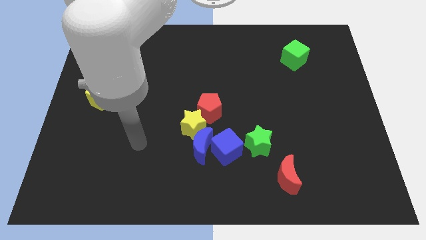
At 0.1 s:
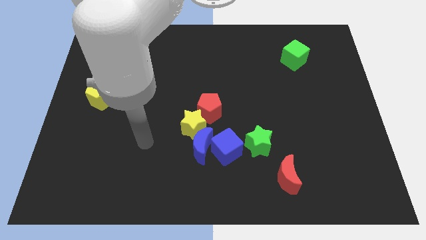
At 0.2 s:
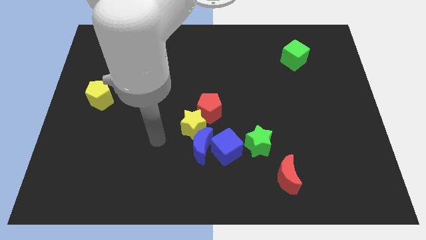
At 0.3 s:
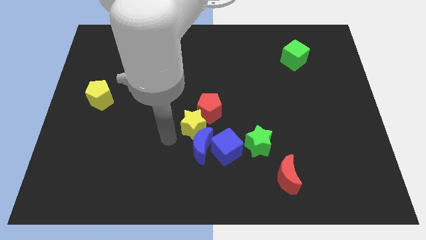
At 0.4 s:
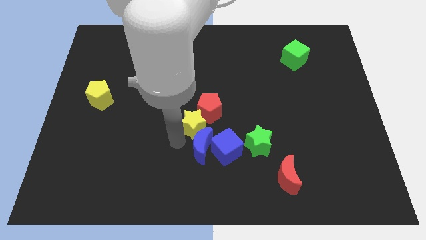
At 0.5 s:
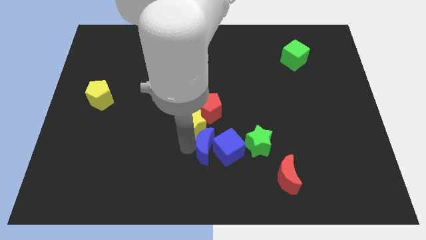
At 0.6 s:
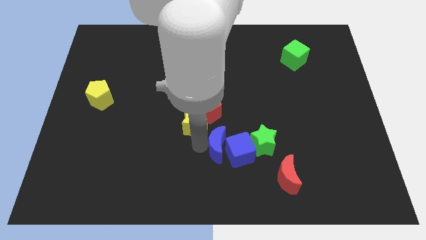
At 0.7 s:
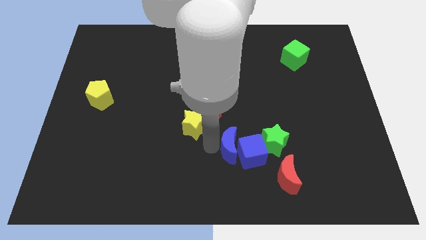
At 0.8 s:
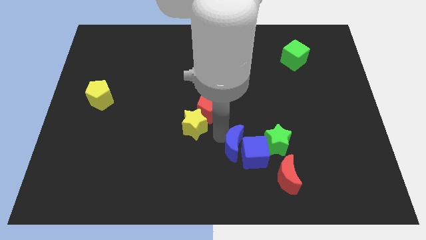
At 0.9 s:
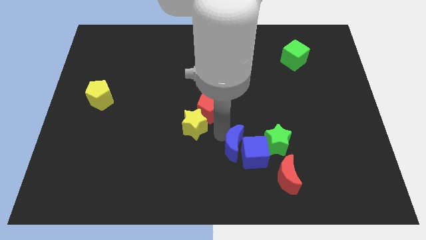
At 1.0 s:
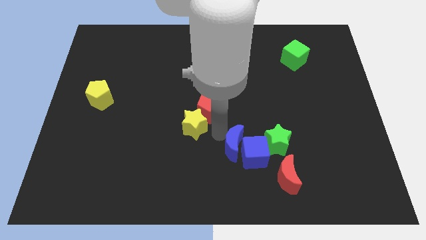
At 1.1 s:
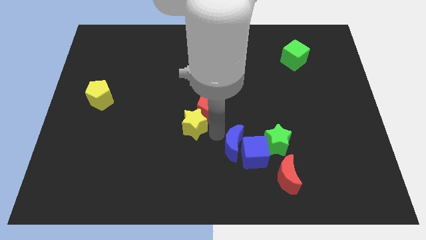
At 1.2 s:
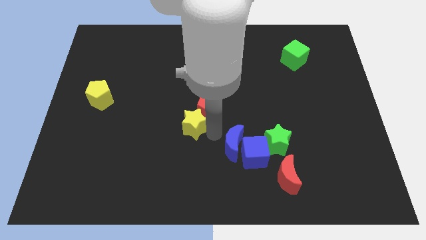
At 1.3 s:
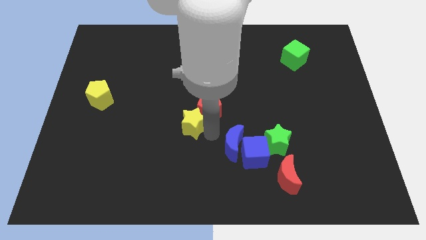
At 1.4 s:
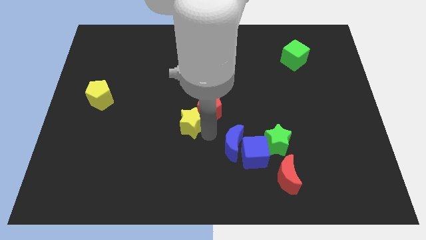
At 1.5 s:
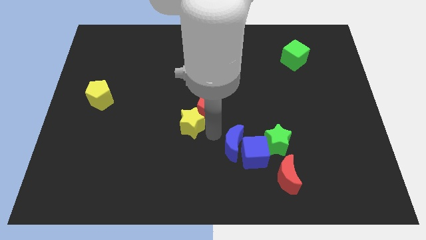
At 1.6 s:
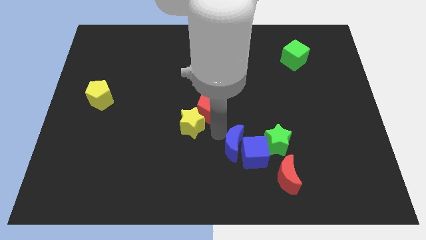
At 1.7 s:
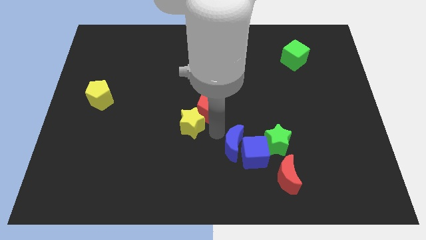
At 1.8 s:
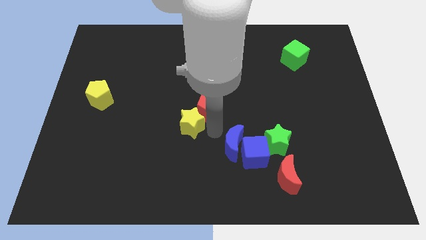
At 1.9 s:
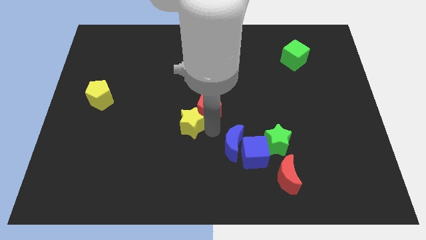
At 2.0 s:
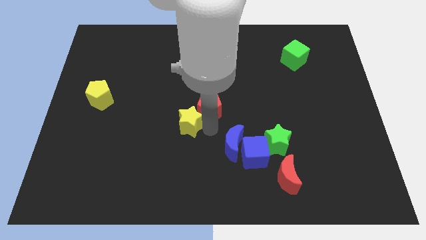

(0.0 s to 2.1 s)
pull the yellow star apart from the group

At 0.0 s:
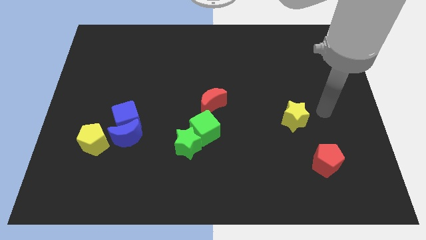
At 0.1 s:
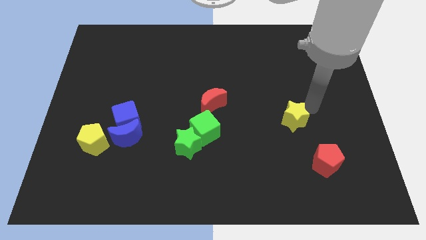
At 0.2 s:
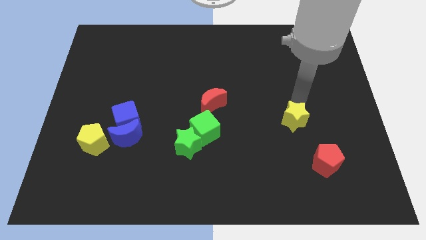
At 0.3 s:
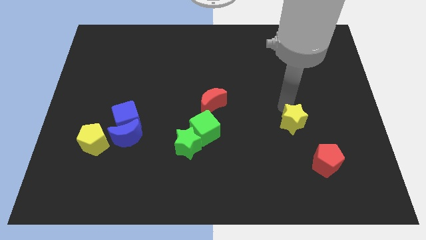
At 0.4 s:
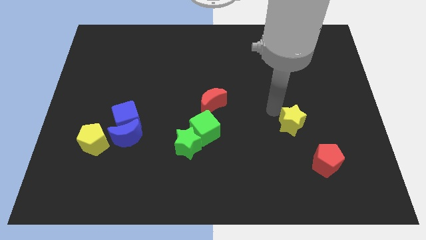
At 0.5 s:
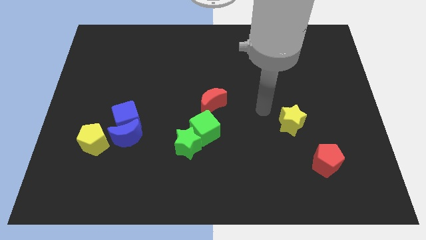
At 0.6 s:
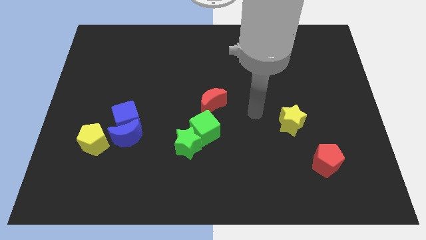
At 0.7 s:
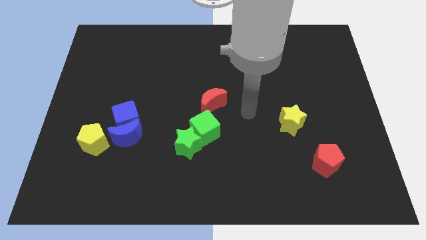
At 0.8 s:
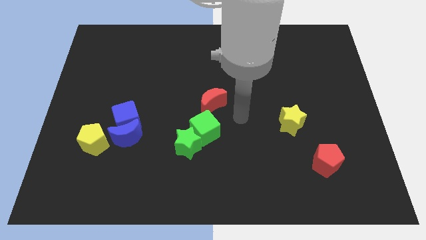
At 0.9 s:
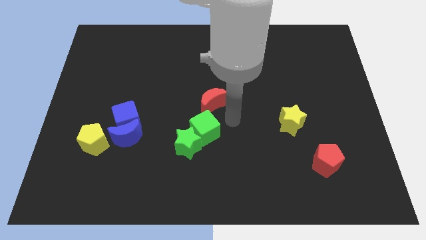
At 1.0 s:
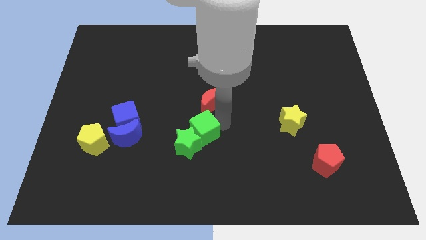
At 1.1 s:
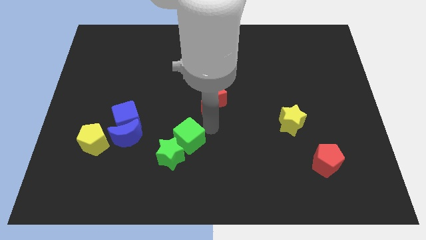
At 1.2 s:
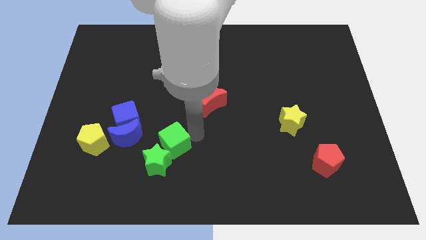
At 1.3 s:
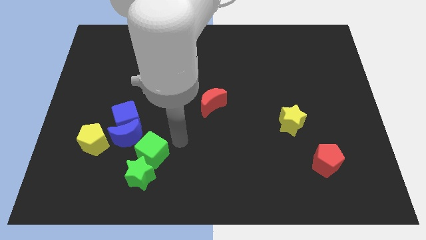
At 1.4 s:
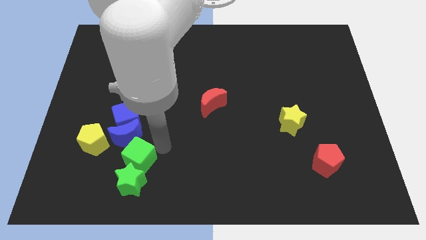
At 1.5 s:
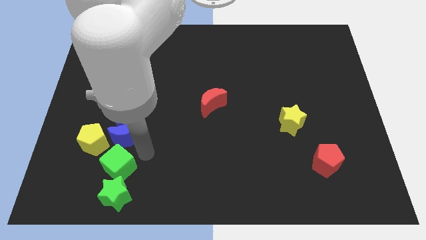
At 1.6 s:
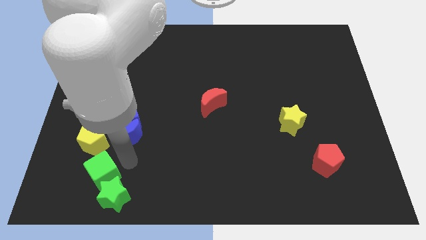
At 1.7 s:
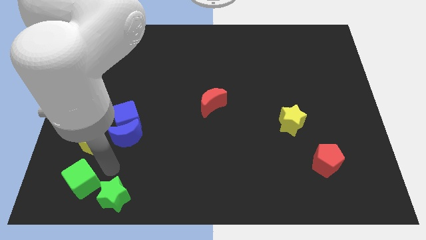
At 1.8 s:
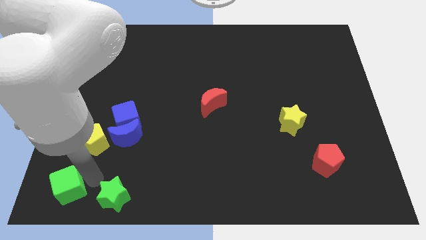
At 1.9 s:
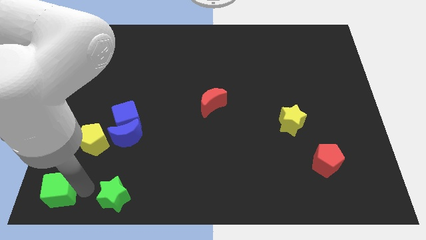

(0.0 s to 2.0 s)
separate the green star from the green cube

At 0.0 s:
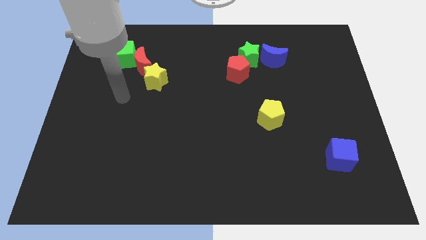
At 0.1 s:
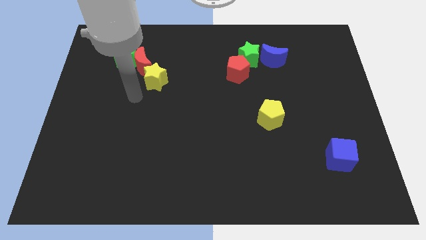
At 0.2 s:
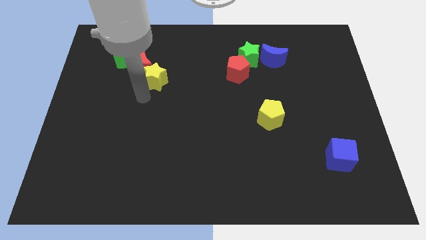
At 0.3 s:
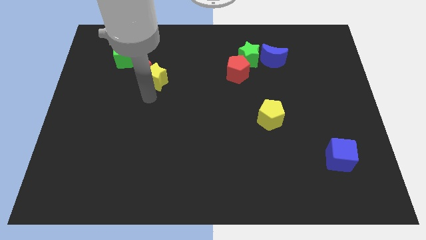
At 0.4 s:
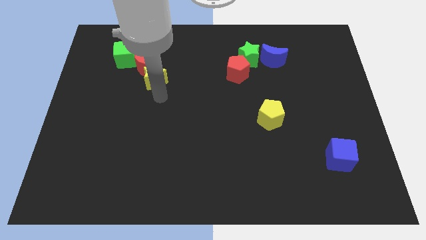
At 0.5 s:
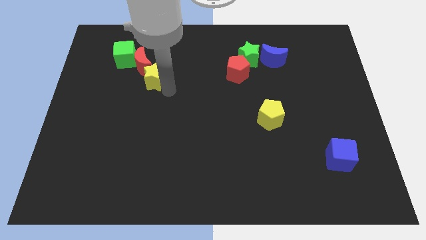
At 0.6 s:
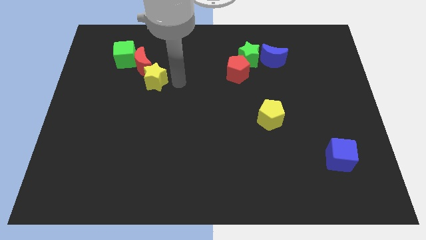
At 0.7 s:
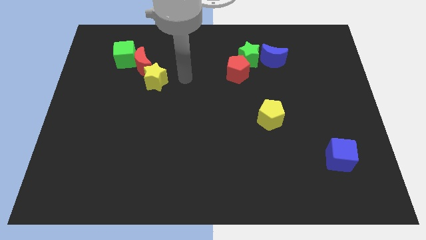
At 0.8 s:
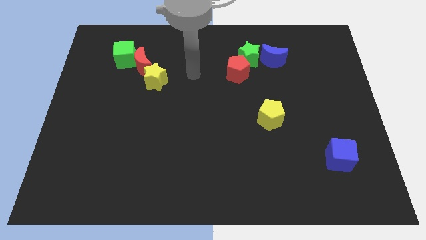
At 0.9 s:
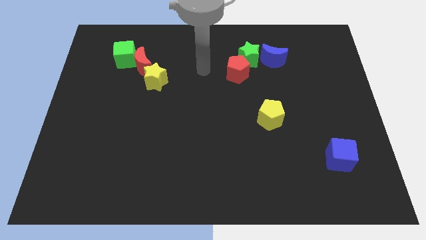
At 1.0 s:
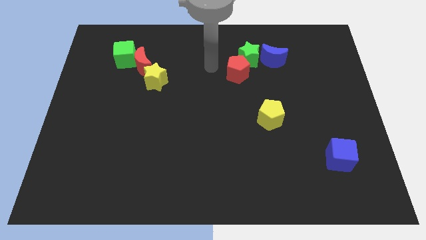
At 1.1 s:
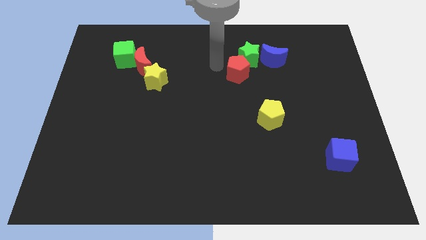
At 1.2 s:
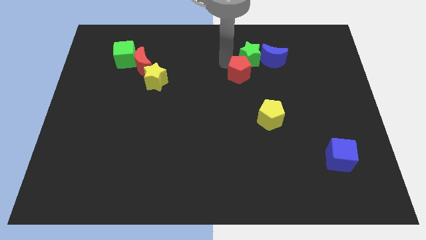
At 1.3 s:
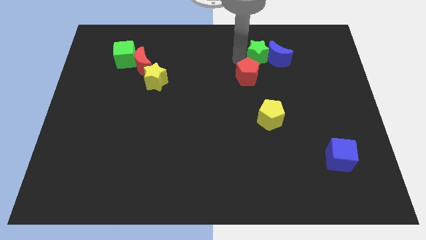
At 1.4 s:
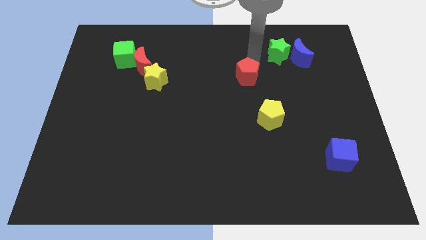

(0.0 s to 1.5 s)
pull the red pentagon apart from the green star

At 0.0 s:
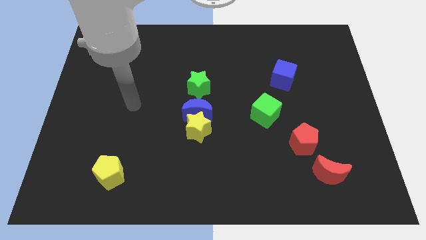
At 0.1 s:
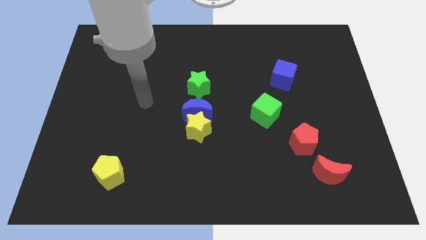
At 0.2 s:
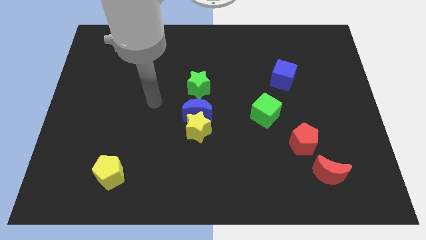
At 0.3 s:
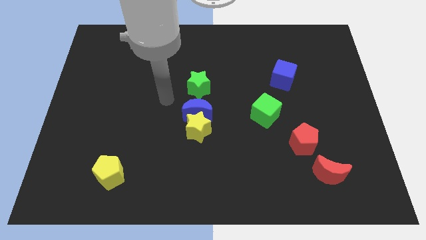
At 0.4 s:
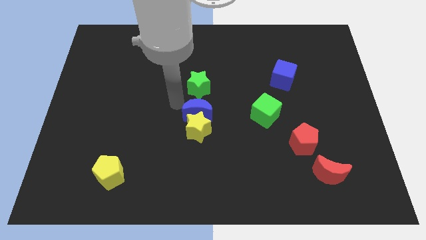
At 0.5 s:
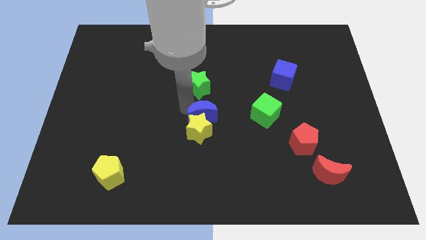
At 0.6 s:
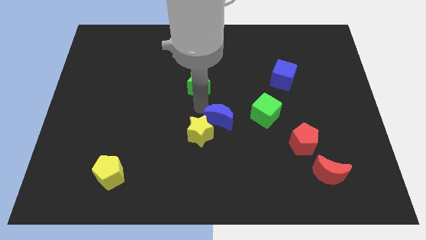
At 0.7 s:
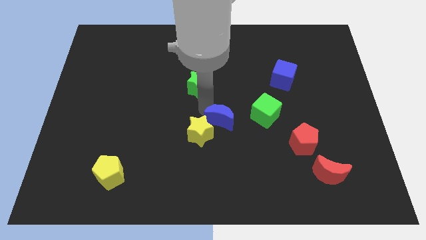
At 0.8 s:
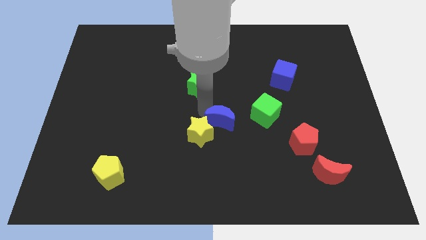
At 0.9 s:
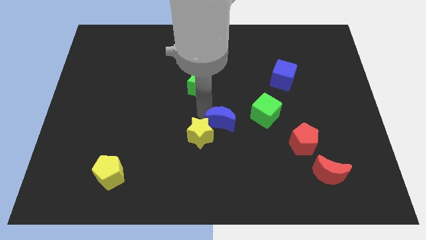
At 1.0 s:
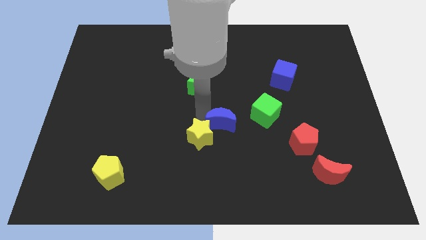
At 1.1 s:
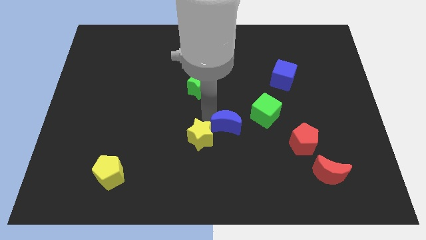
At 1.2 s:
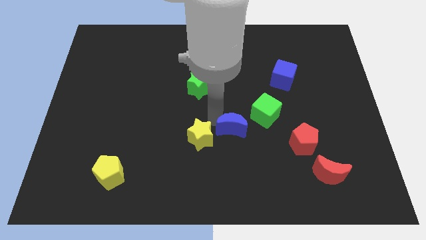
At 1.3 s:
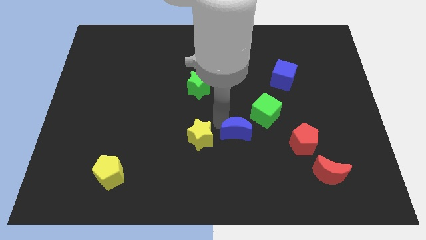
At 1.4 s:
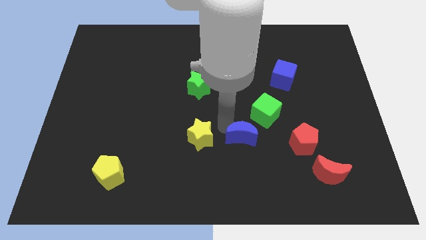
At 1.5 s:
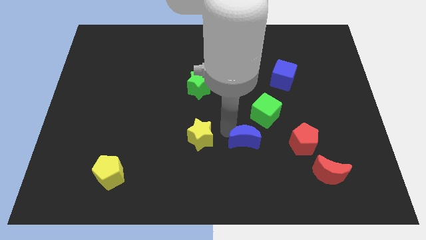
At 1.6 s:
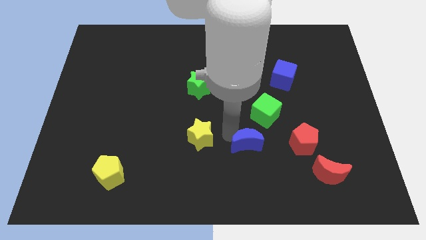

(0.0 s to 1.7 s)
pull the yellow star apart from the blue moon

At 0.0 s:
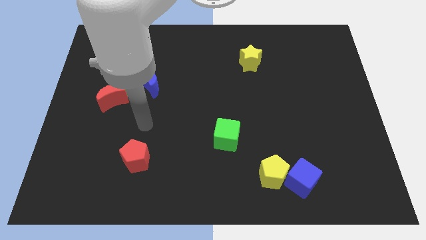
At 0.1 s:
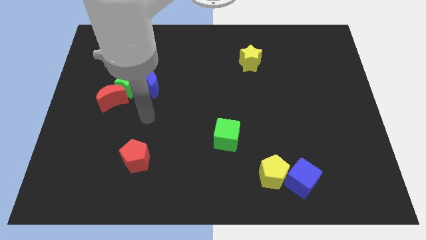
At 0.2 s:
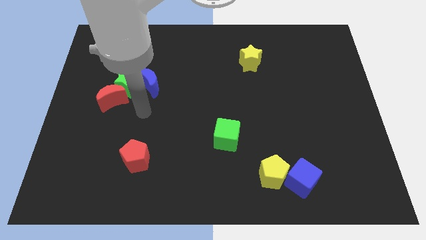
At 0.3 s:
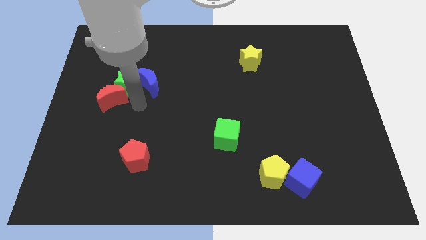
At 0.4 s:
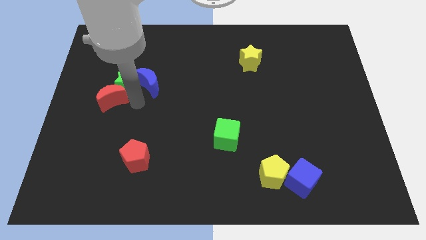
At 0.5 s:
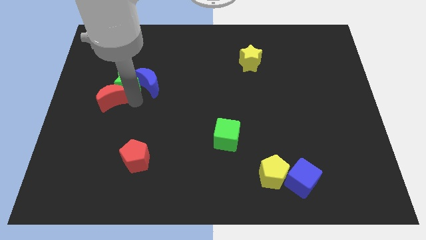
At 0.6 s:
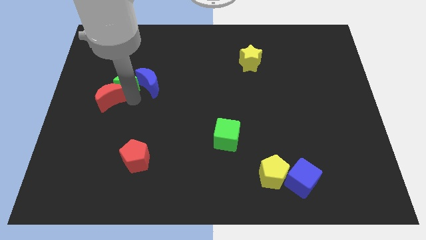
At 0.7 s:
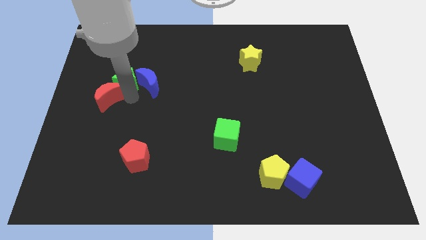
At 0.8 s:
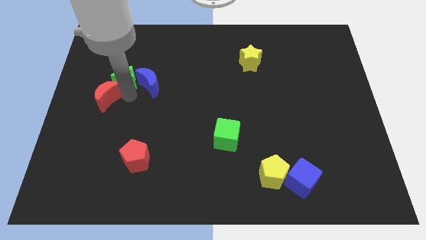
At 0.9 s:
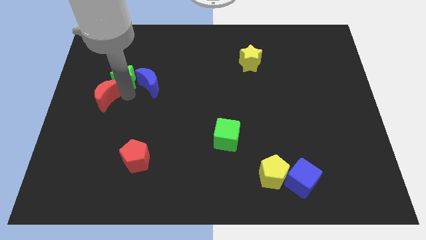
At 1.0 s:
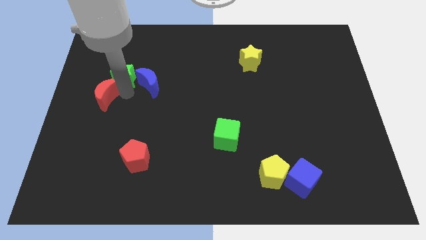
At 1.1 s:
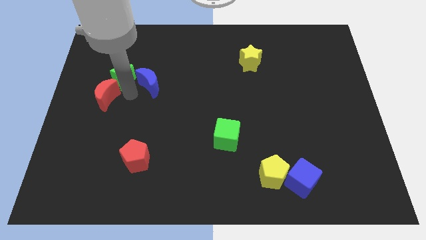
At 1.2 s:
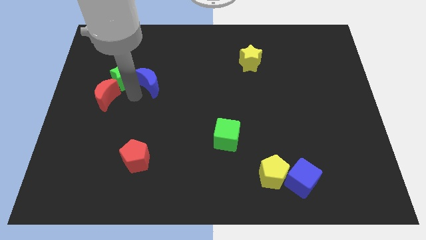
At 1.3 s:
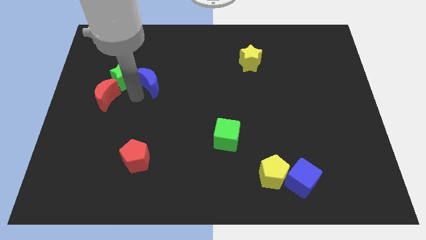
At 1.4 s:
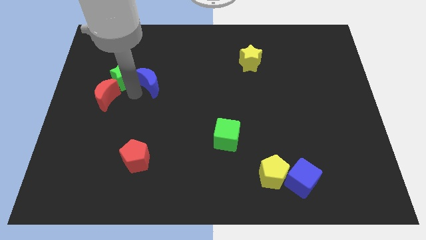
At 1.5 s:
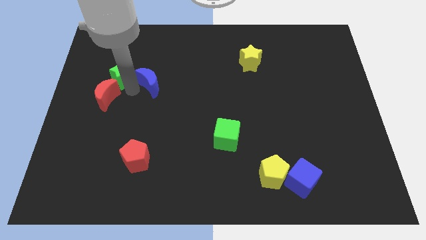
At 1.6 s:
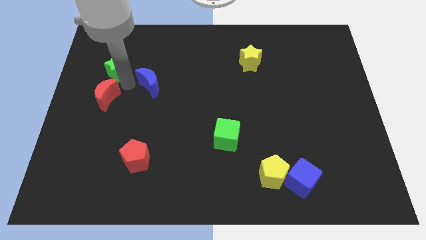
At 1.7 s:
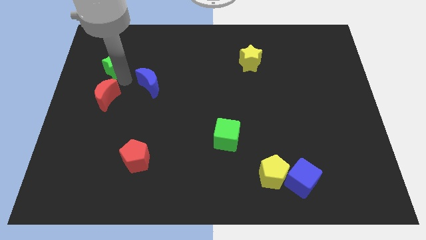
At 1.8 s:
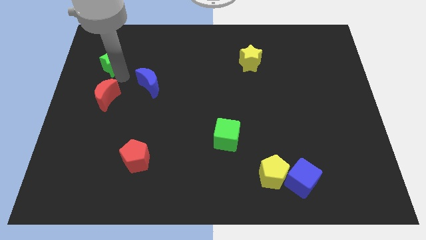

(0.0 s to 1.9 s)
move the green star away from the red moon and blue moon

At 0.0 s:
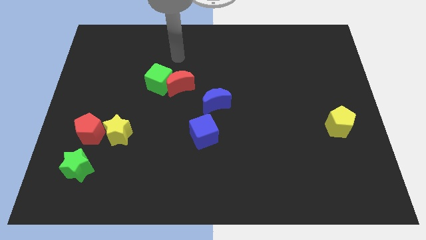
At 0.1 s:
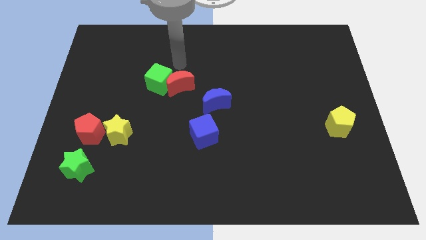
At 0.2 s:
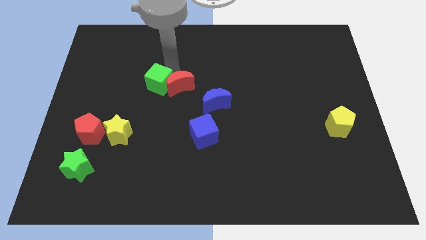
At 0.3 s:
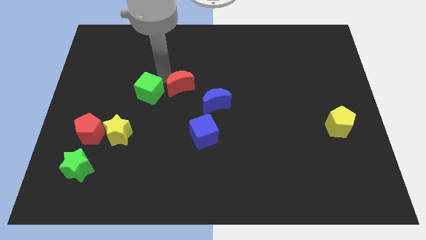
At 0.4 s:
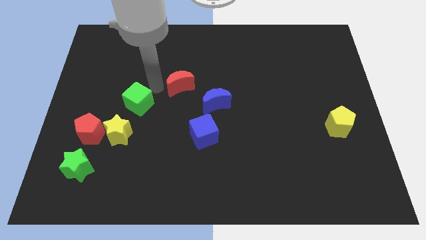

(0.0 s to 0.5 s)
move the red moon away from the green cube
